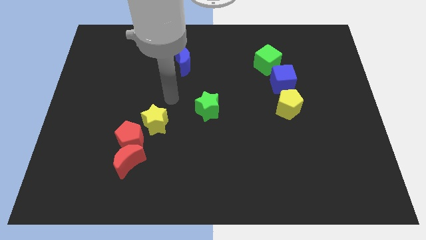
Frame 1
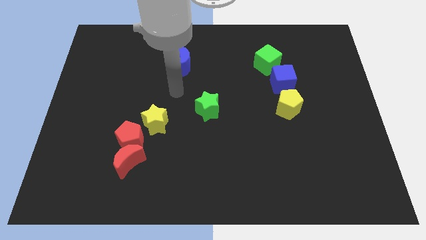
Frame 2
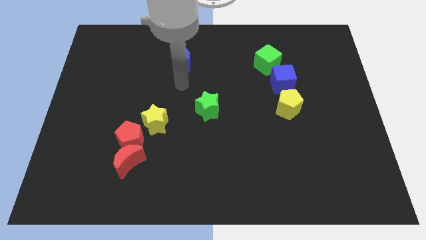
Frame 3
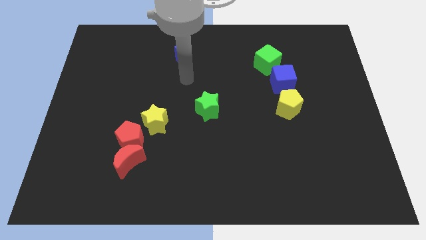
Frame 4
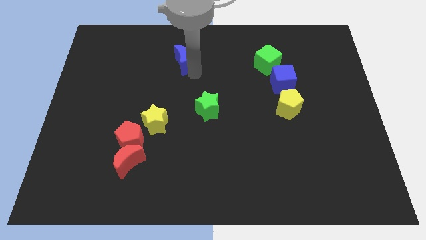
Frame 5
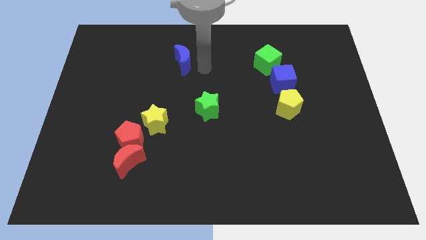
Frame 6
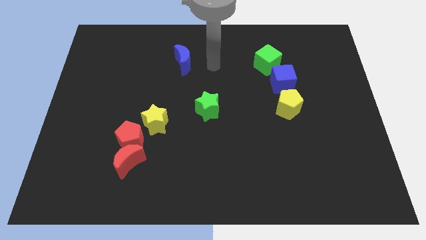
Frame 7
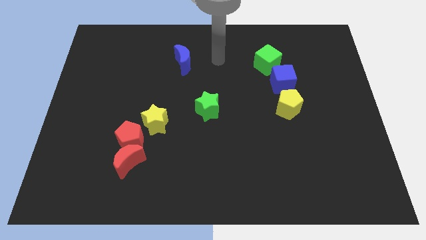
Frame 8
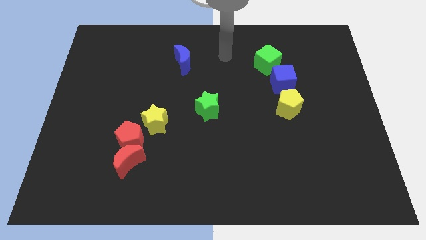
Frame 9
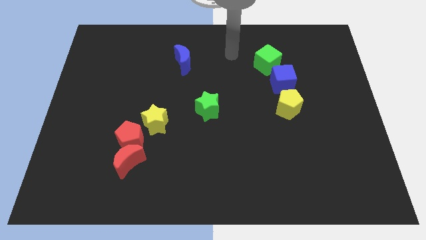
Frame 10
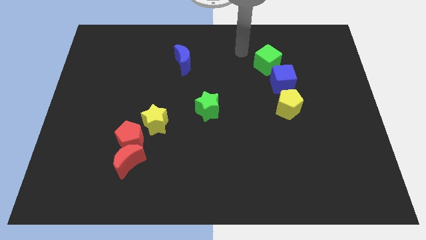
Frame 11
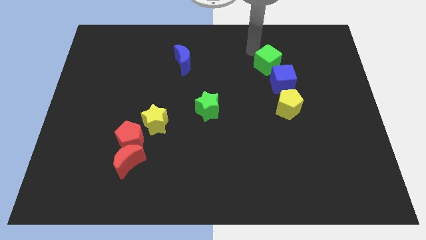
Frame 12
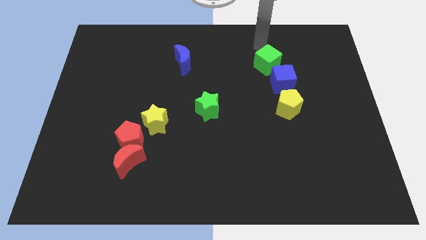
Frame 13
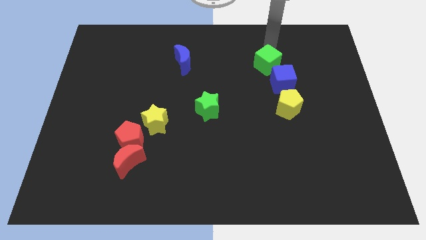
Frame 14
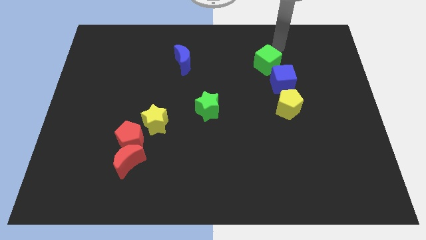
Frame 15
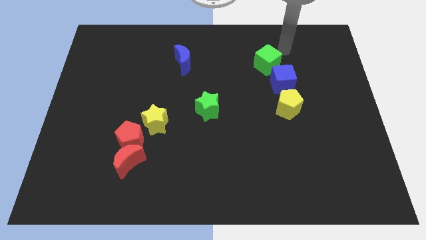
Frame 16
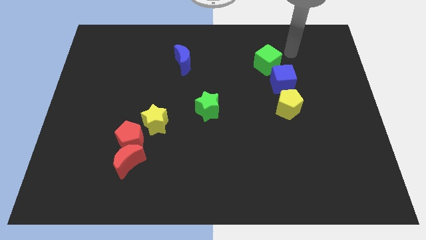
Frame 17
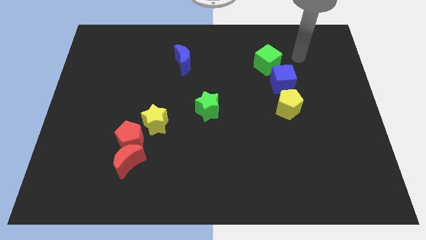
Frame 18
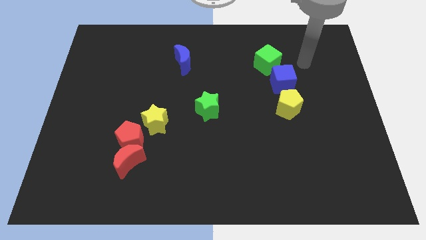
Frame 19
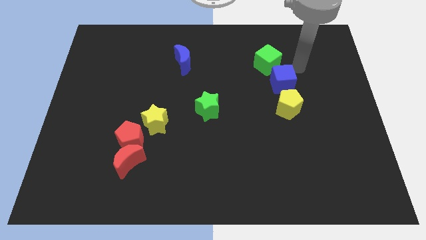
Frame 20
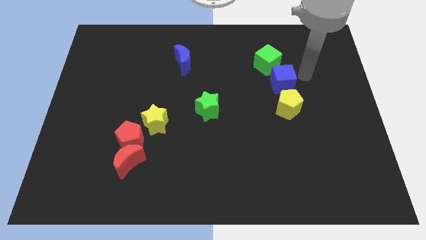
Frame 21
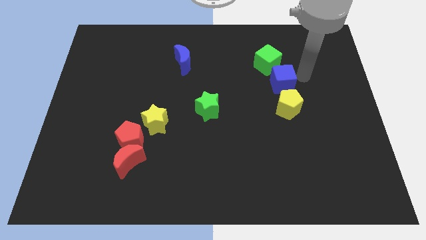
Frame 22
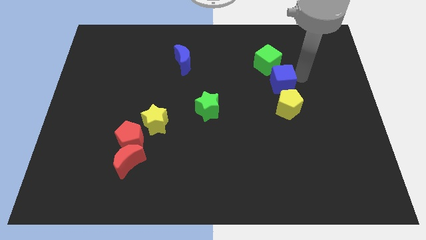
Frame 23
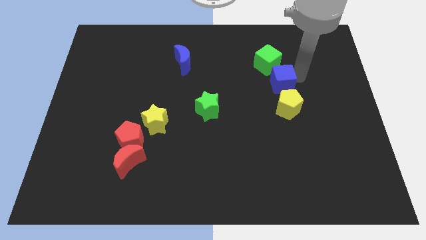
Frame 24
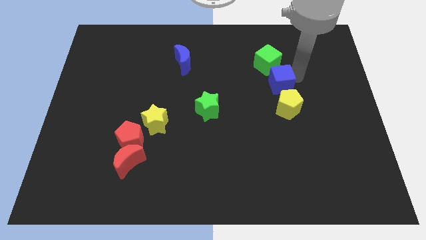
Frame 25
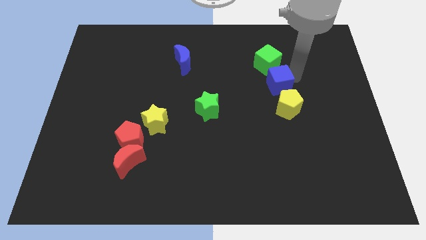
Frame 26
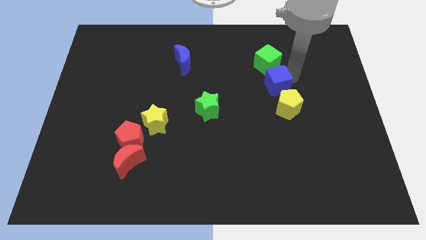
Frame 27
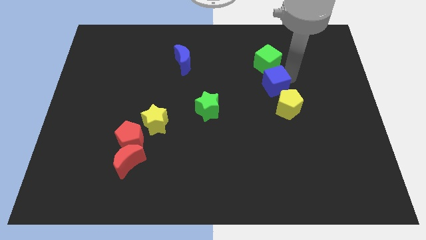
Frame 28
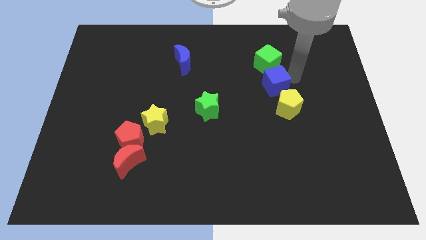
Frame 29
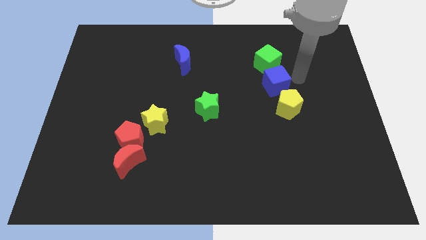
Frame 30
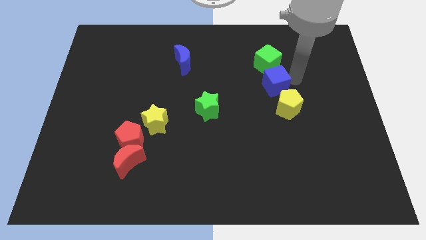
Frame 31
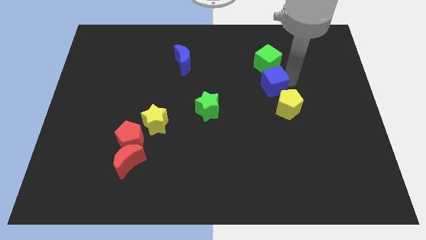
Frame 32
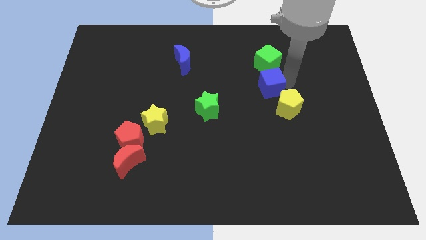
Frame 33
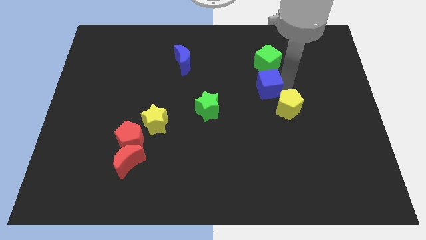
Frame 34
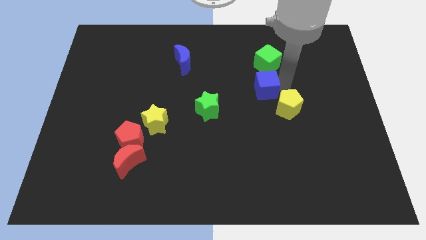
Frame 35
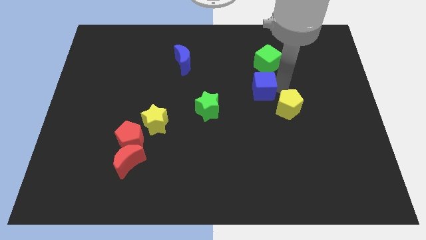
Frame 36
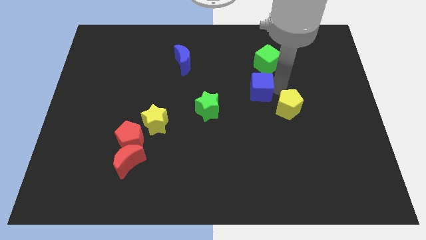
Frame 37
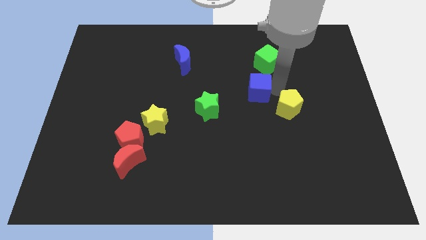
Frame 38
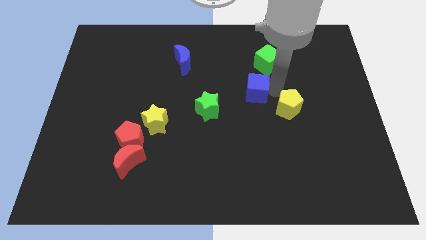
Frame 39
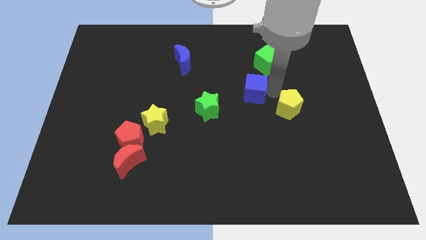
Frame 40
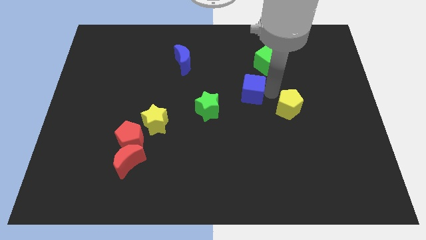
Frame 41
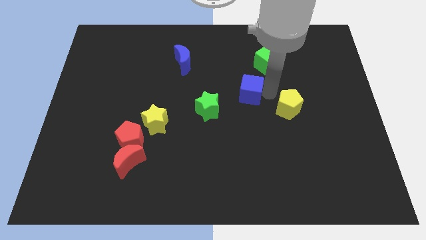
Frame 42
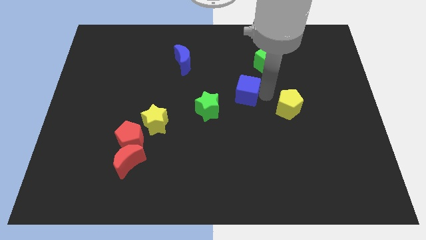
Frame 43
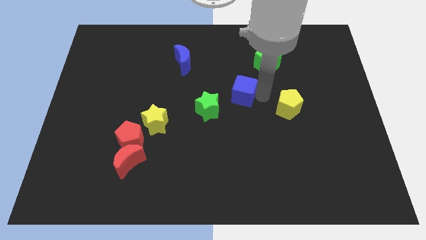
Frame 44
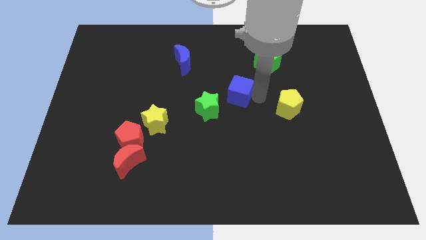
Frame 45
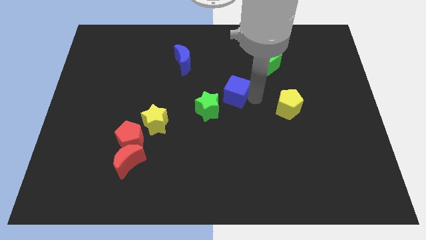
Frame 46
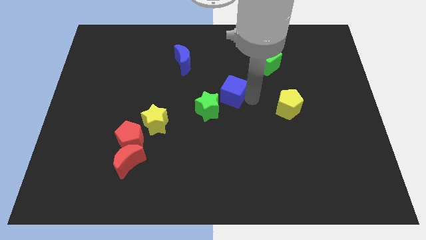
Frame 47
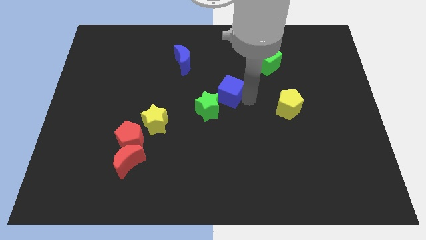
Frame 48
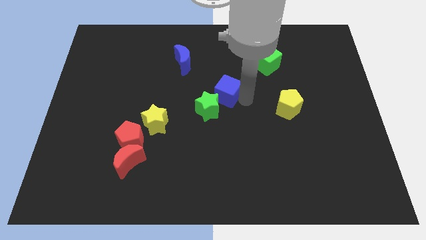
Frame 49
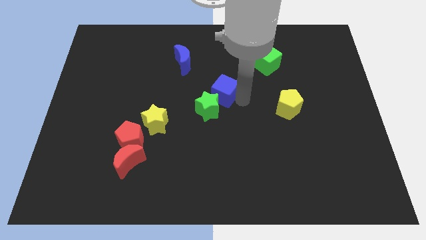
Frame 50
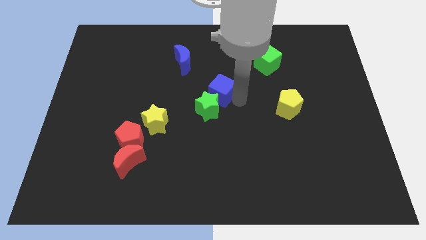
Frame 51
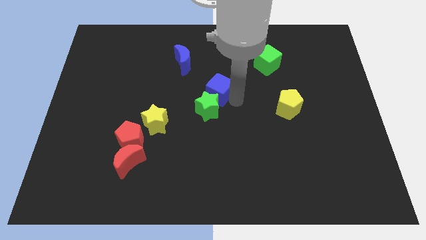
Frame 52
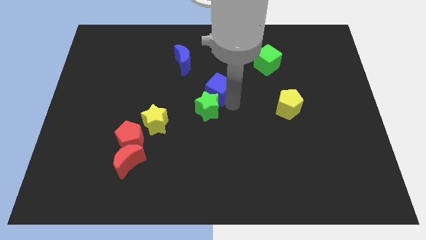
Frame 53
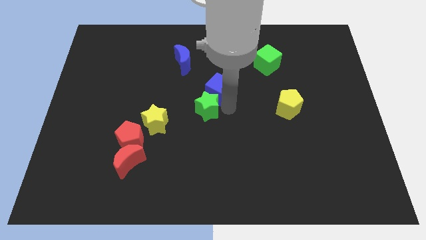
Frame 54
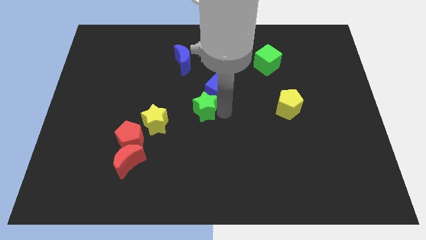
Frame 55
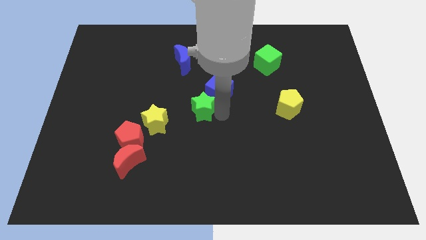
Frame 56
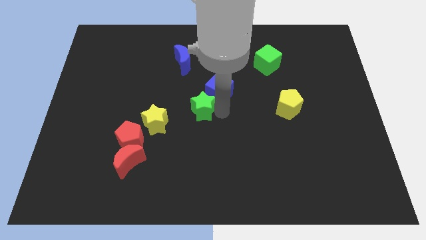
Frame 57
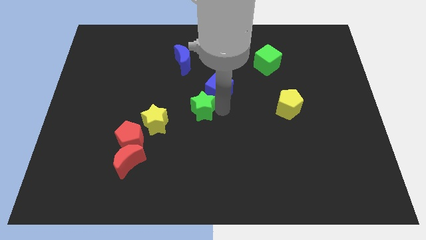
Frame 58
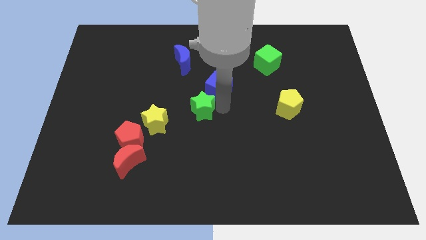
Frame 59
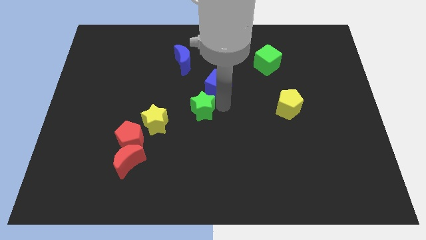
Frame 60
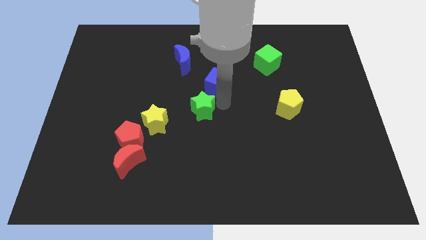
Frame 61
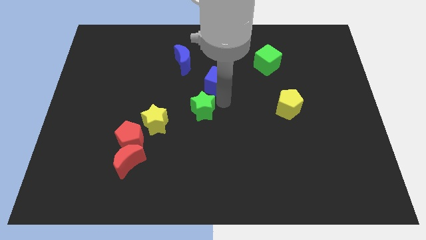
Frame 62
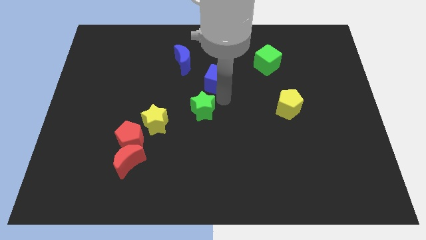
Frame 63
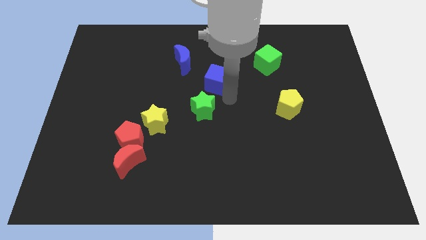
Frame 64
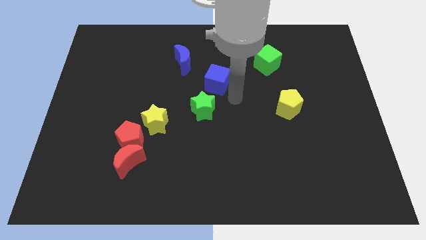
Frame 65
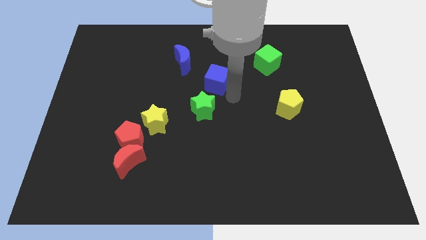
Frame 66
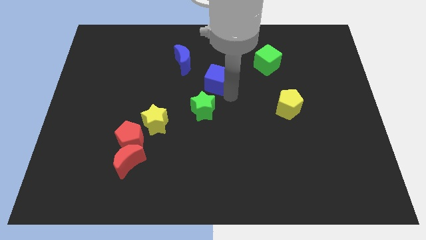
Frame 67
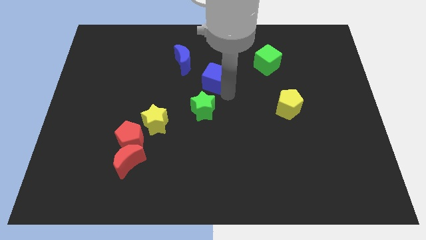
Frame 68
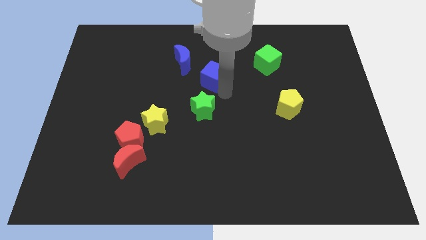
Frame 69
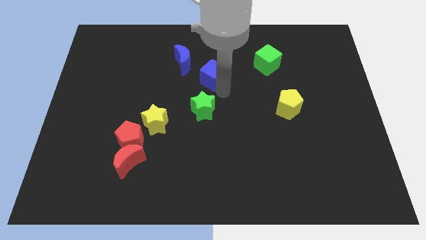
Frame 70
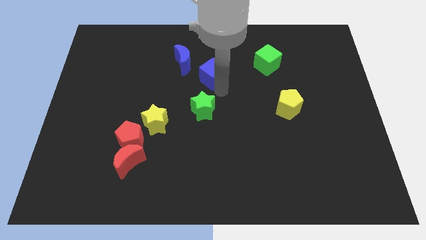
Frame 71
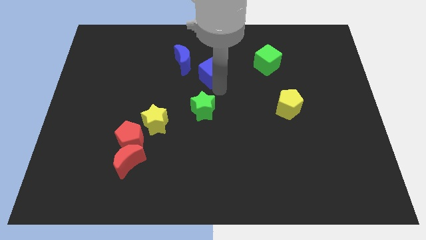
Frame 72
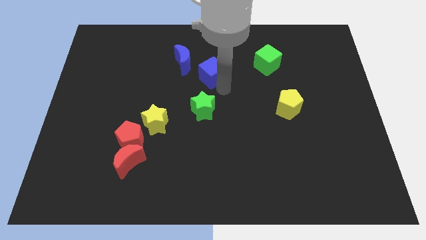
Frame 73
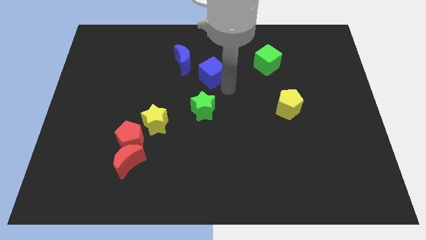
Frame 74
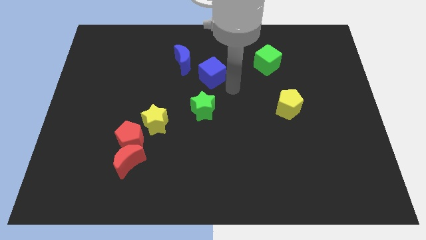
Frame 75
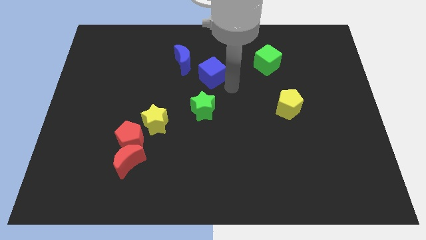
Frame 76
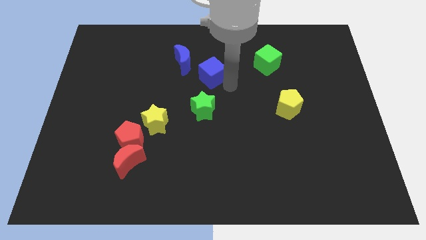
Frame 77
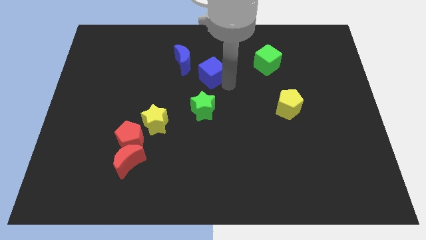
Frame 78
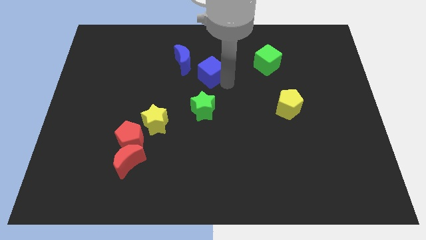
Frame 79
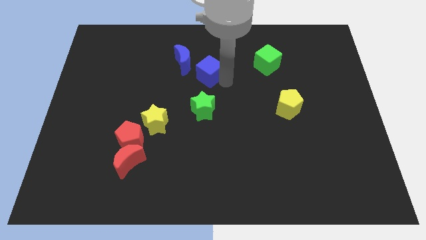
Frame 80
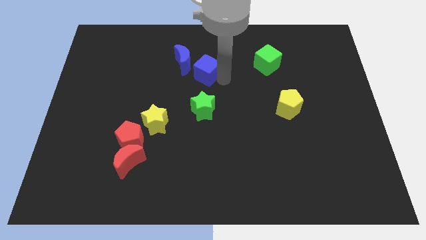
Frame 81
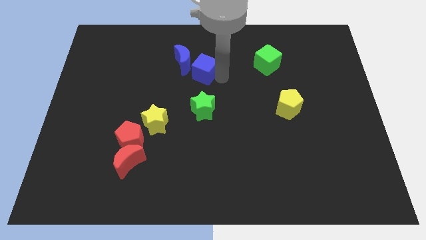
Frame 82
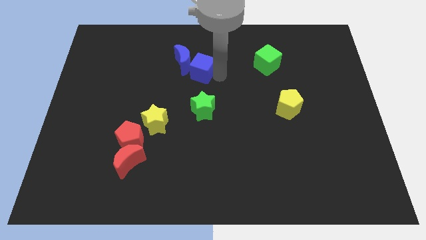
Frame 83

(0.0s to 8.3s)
move the blue cube towards the blue moon
